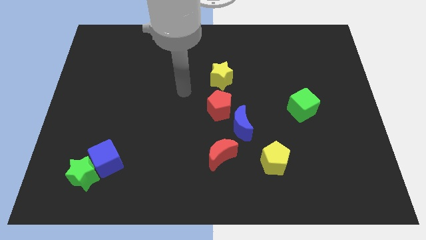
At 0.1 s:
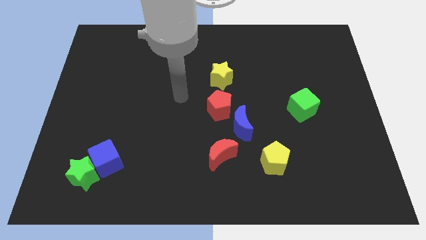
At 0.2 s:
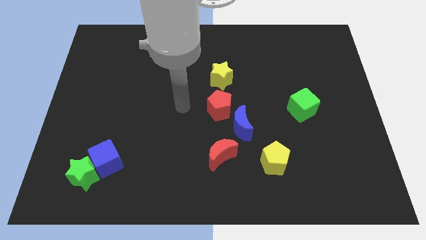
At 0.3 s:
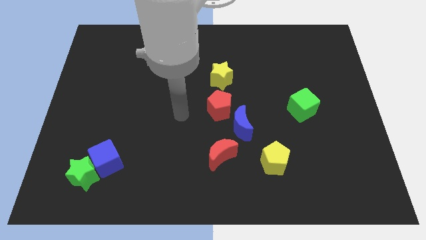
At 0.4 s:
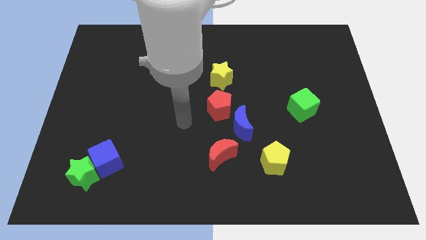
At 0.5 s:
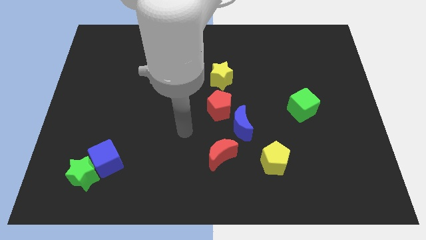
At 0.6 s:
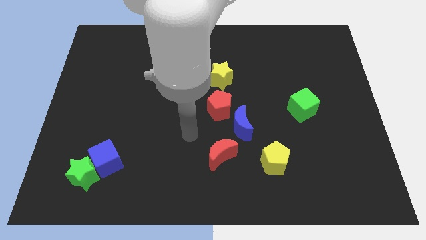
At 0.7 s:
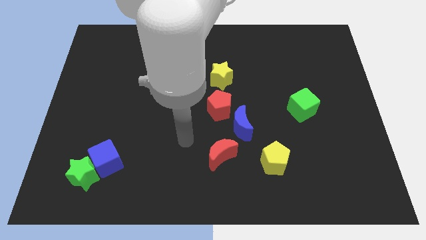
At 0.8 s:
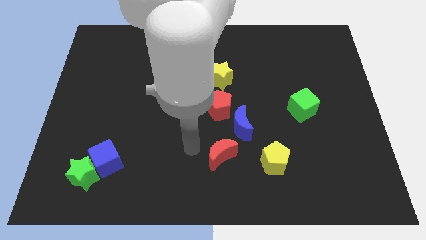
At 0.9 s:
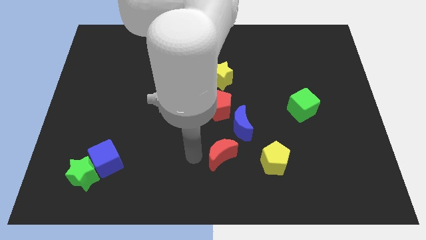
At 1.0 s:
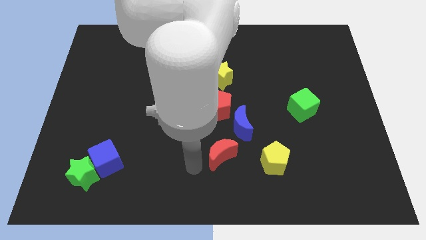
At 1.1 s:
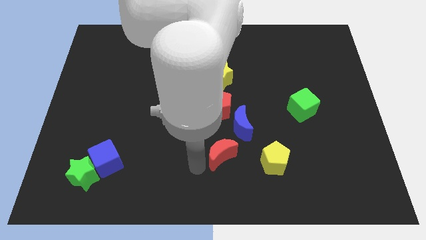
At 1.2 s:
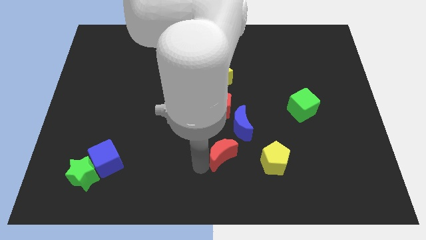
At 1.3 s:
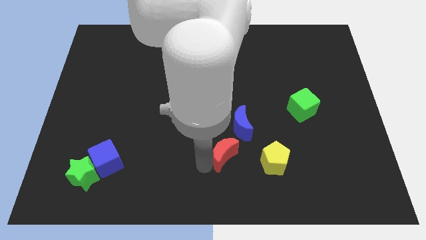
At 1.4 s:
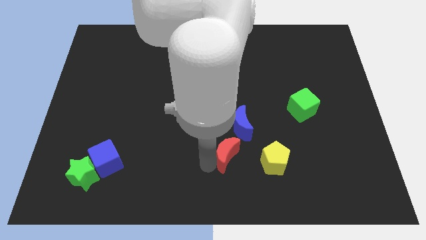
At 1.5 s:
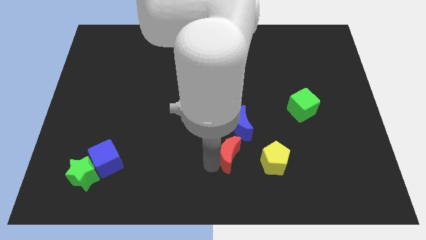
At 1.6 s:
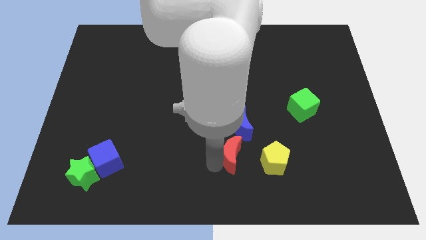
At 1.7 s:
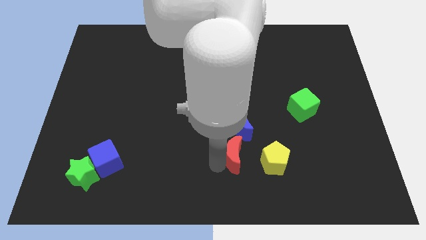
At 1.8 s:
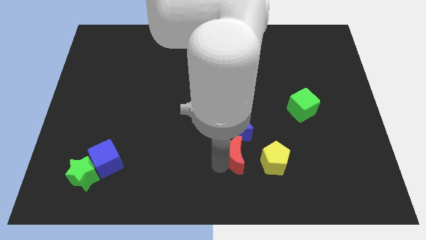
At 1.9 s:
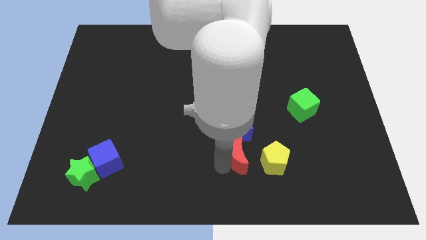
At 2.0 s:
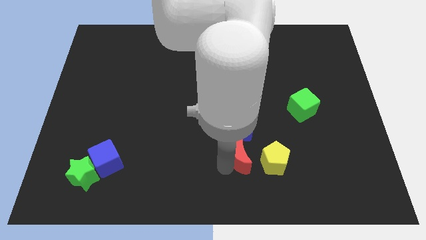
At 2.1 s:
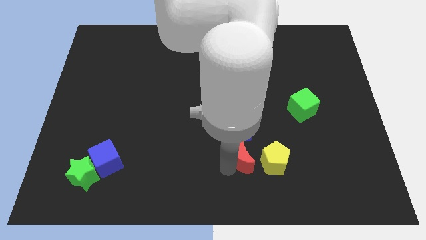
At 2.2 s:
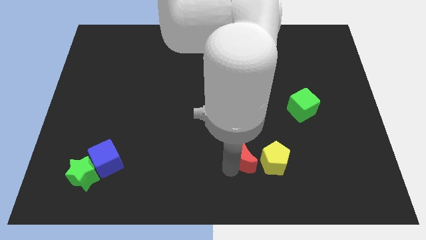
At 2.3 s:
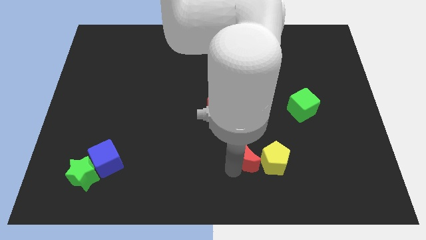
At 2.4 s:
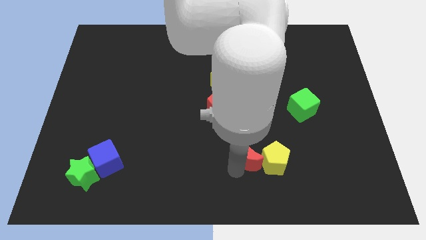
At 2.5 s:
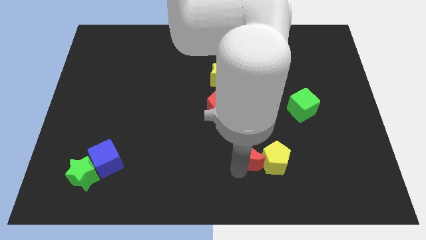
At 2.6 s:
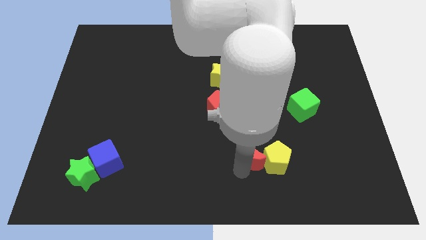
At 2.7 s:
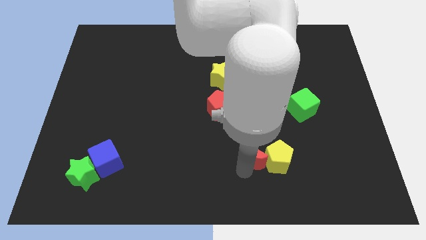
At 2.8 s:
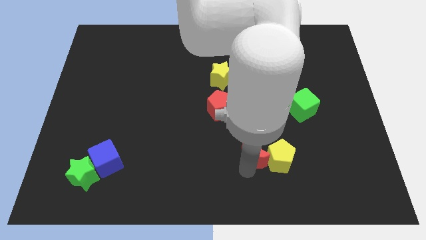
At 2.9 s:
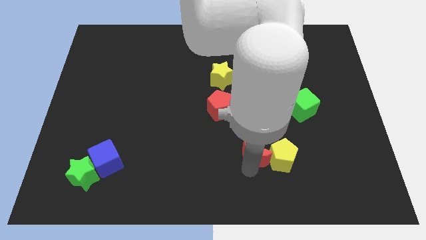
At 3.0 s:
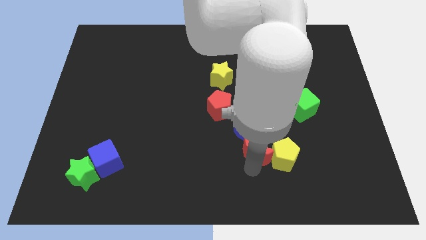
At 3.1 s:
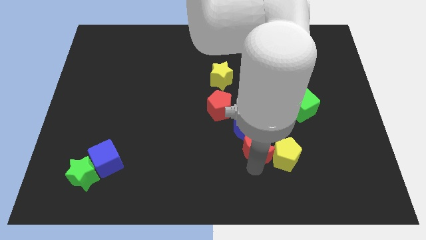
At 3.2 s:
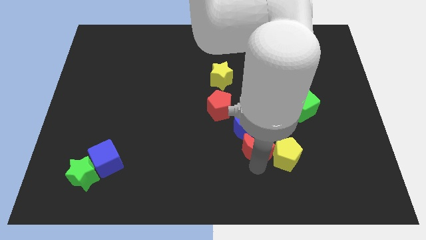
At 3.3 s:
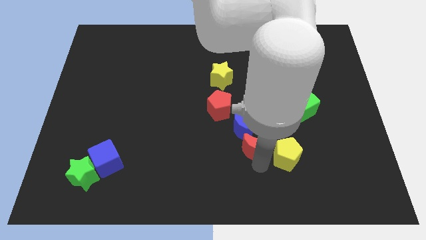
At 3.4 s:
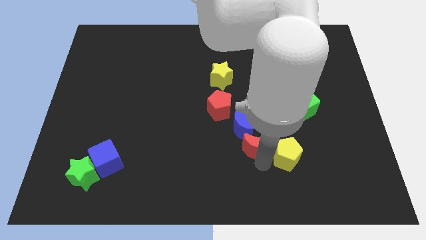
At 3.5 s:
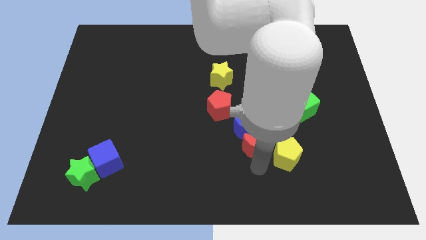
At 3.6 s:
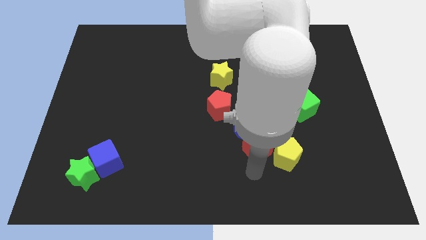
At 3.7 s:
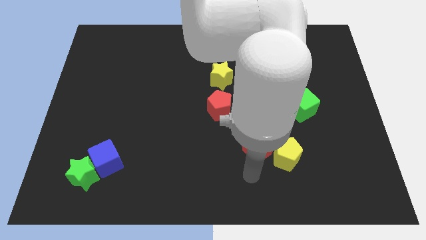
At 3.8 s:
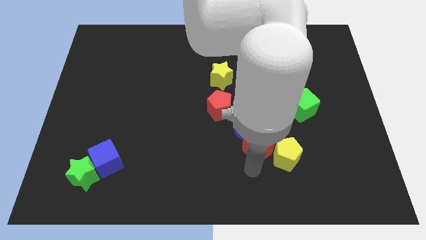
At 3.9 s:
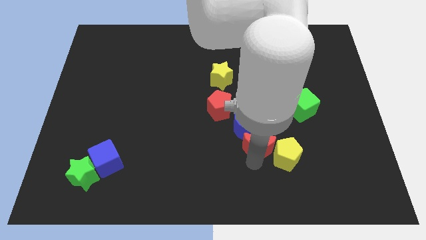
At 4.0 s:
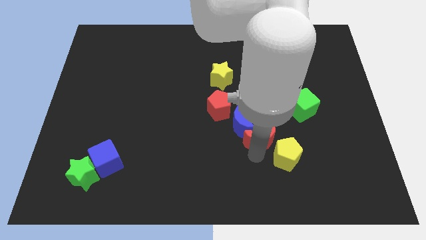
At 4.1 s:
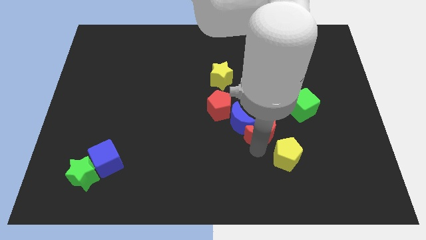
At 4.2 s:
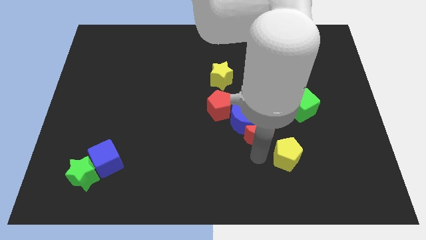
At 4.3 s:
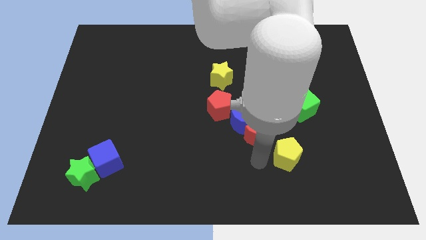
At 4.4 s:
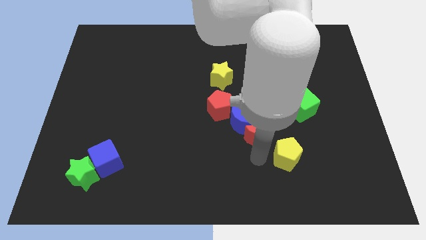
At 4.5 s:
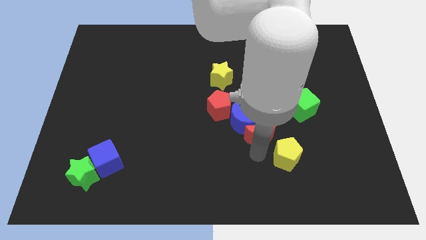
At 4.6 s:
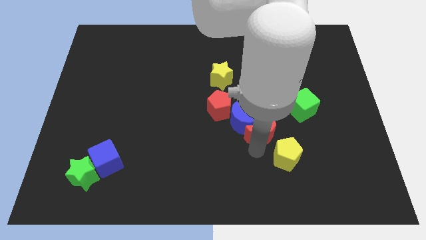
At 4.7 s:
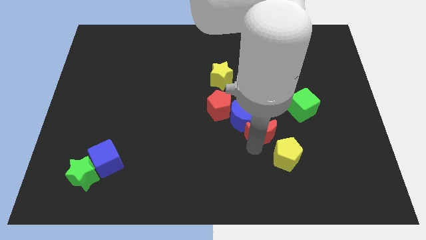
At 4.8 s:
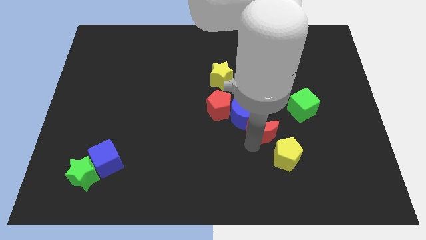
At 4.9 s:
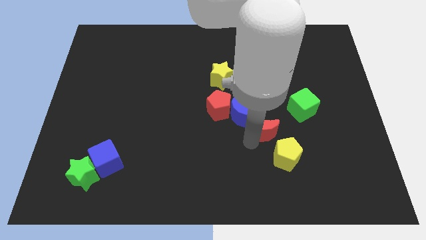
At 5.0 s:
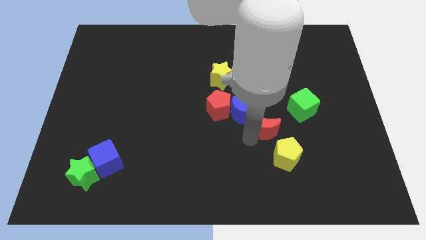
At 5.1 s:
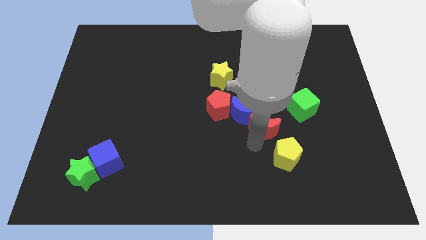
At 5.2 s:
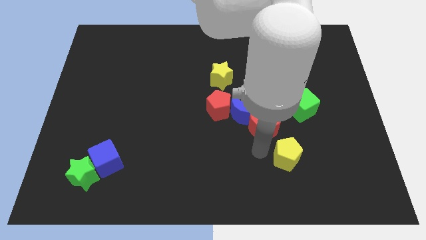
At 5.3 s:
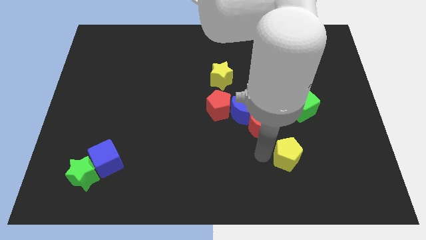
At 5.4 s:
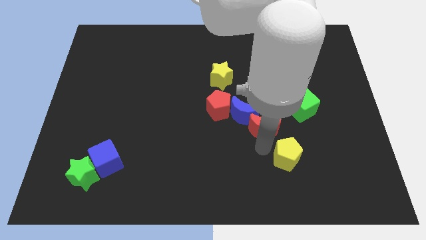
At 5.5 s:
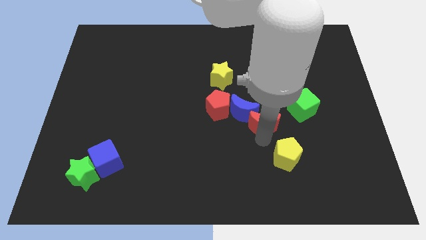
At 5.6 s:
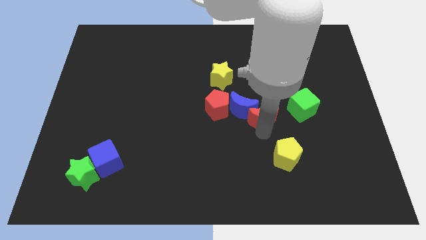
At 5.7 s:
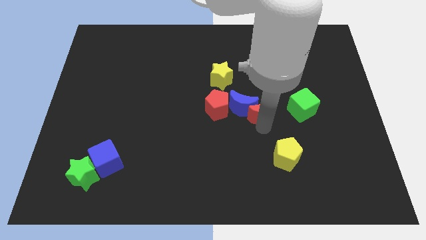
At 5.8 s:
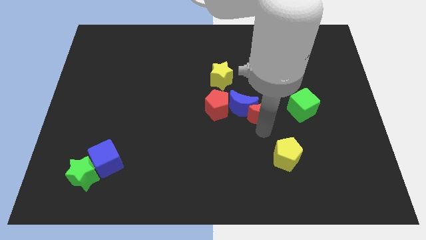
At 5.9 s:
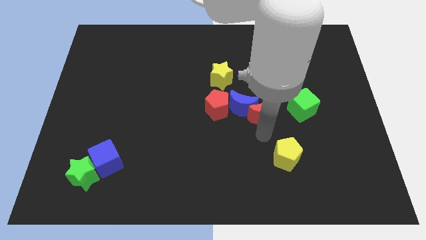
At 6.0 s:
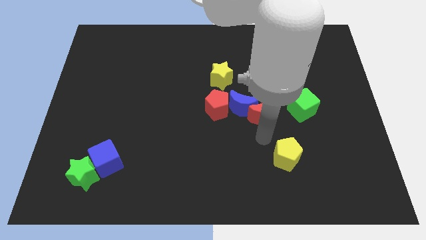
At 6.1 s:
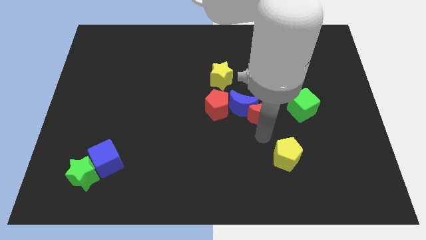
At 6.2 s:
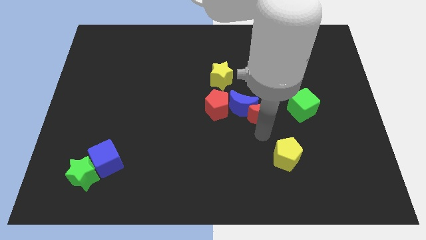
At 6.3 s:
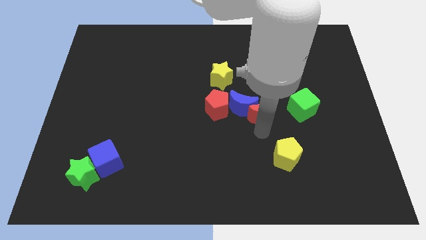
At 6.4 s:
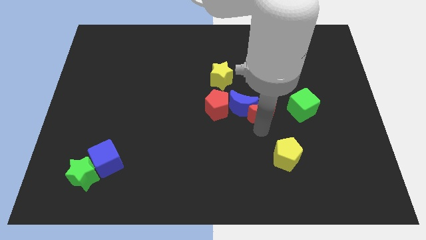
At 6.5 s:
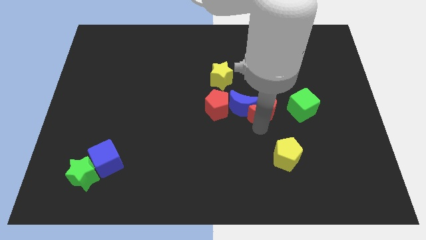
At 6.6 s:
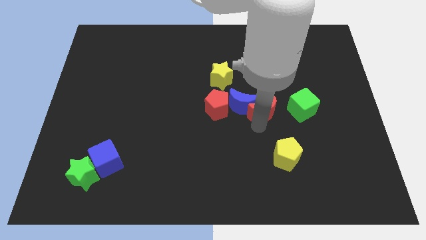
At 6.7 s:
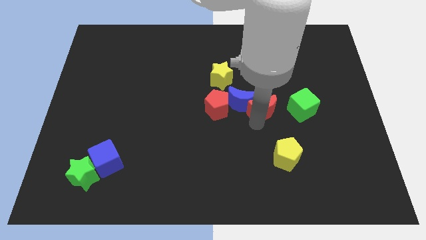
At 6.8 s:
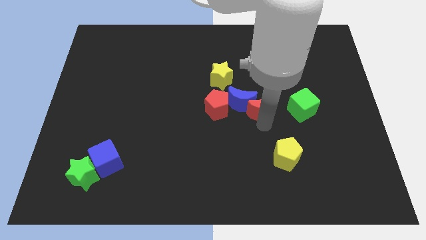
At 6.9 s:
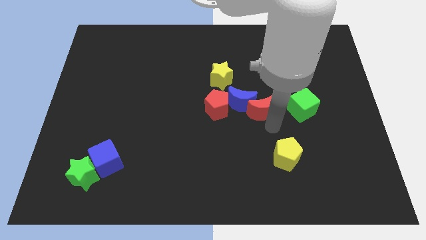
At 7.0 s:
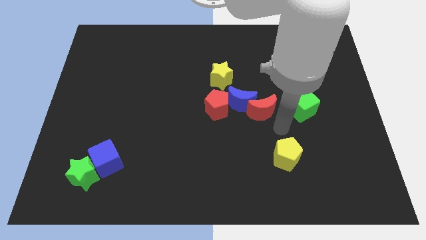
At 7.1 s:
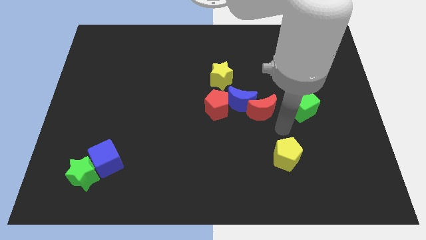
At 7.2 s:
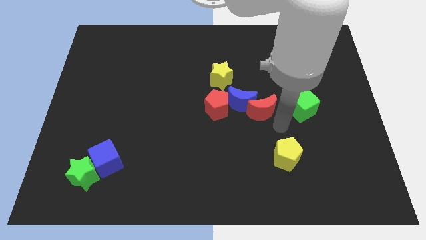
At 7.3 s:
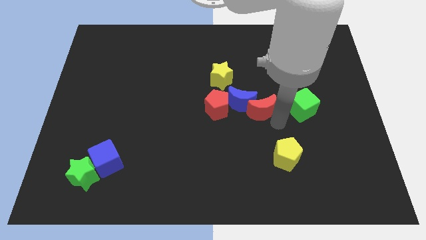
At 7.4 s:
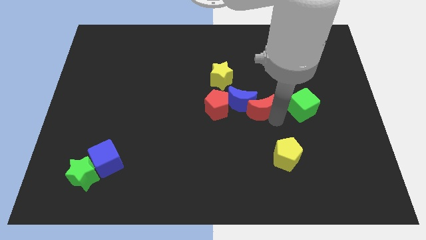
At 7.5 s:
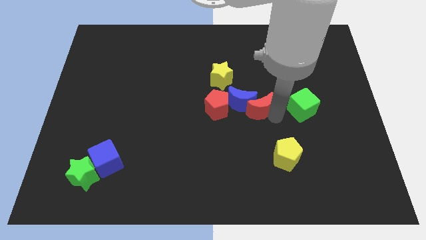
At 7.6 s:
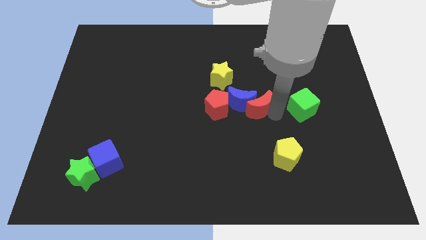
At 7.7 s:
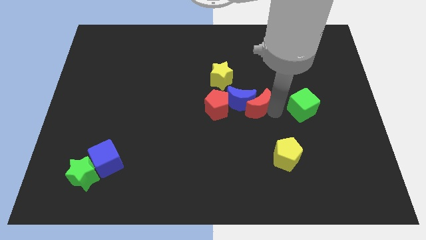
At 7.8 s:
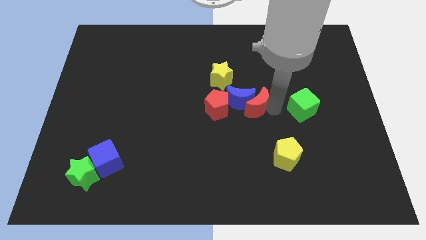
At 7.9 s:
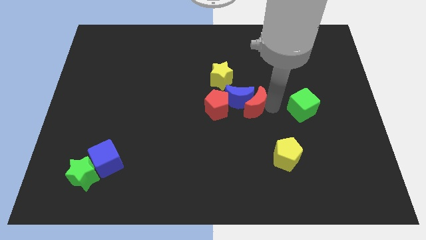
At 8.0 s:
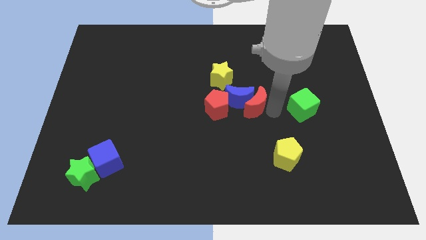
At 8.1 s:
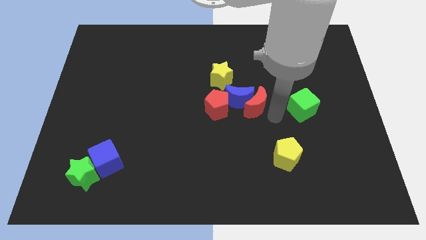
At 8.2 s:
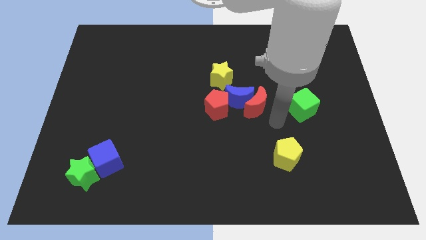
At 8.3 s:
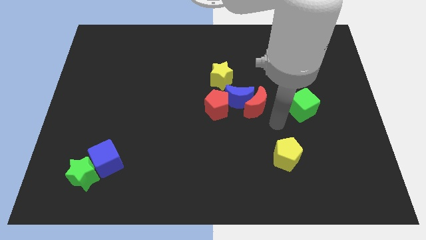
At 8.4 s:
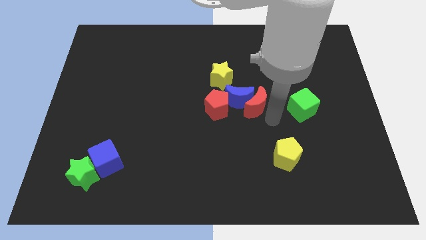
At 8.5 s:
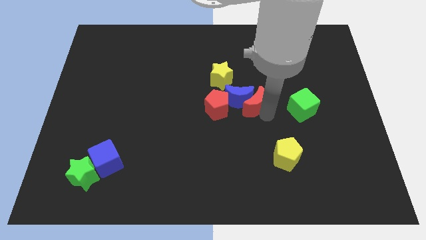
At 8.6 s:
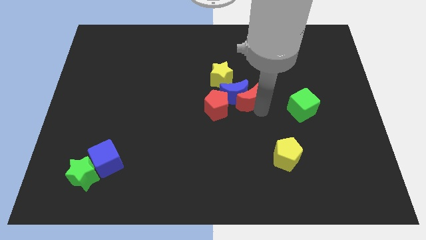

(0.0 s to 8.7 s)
push the red moon to the top right side of the red pentagon
